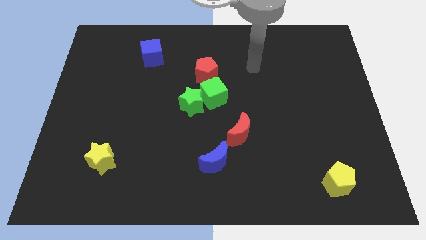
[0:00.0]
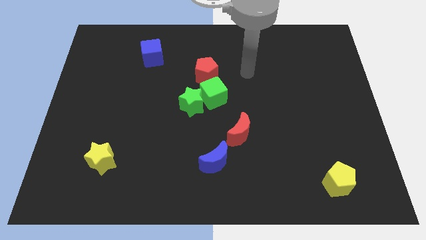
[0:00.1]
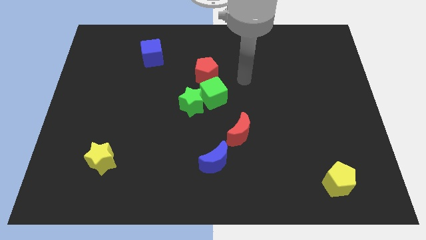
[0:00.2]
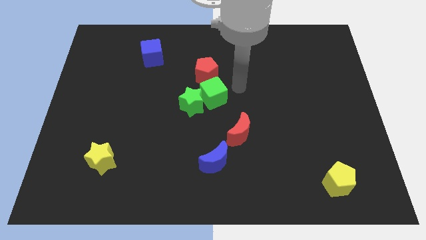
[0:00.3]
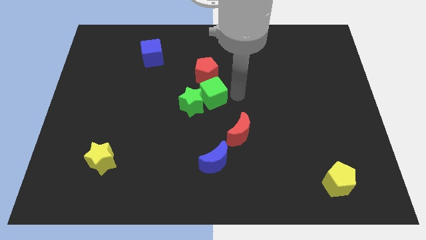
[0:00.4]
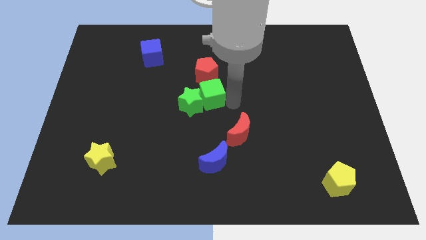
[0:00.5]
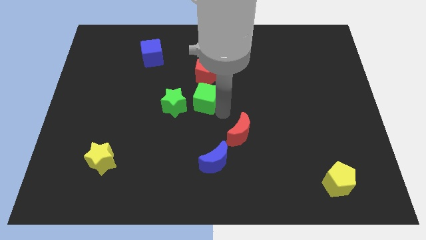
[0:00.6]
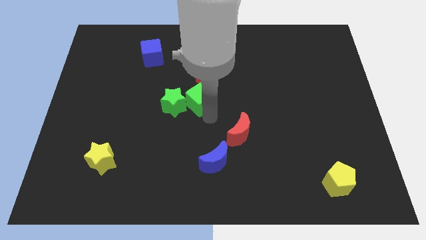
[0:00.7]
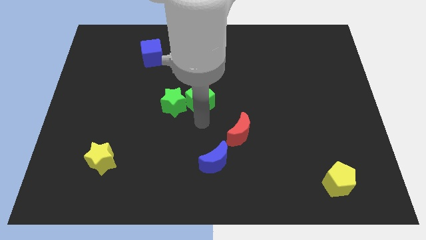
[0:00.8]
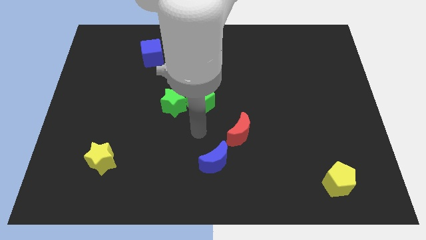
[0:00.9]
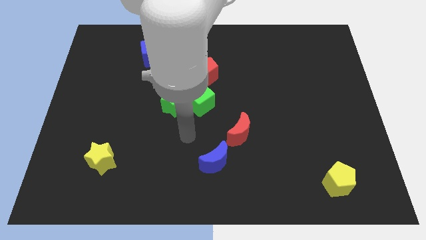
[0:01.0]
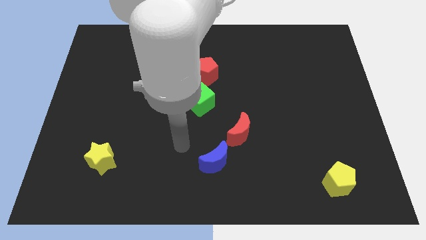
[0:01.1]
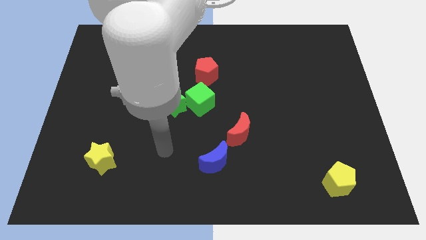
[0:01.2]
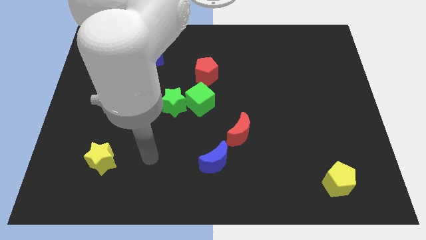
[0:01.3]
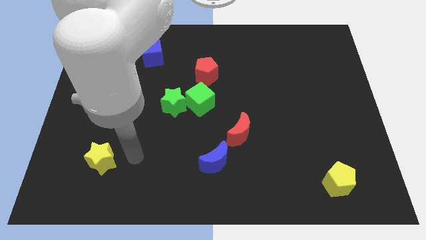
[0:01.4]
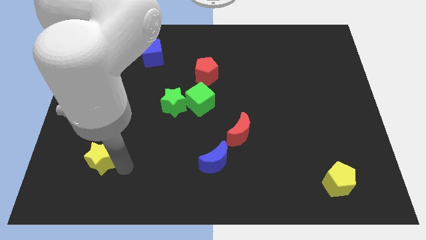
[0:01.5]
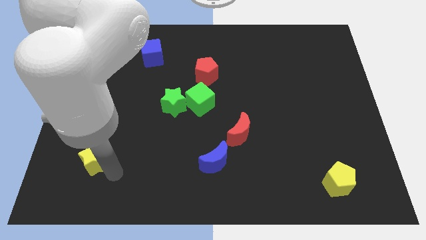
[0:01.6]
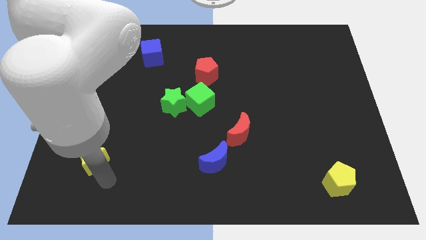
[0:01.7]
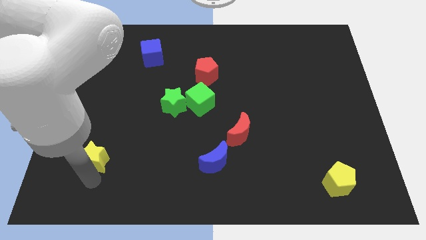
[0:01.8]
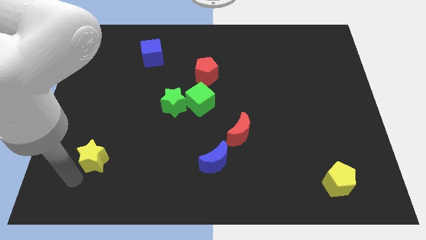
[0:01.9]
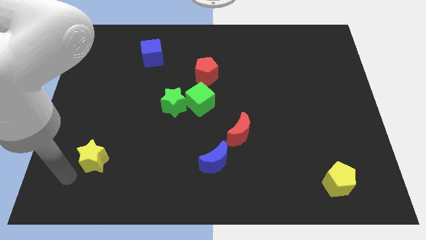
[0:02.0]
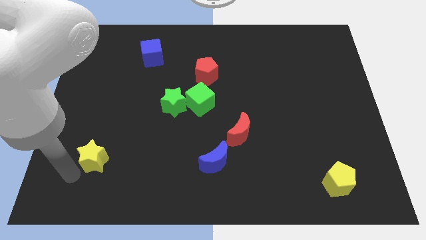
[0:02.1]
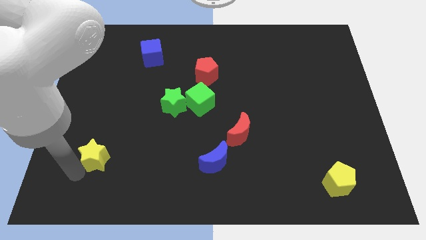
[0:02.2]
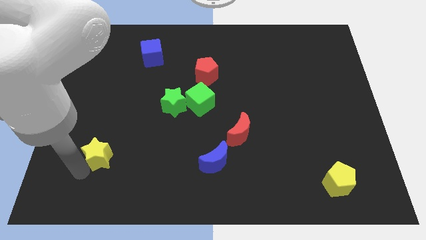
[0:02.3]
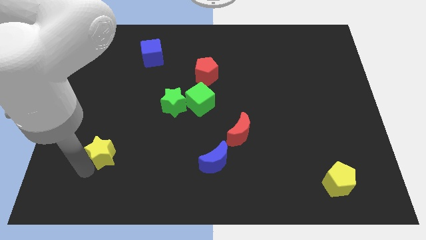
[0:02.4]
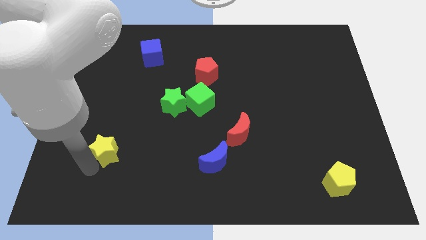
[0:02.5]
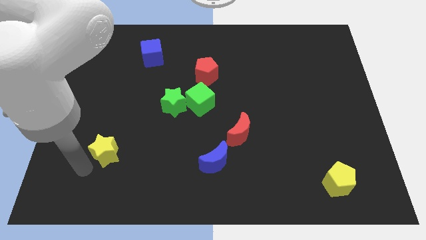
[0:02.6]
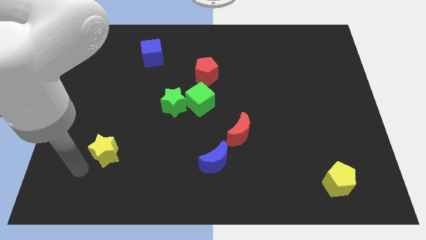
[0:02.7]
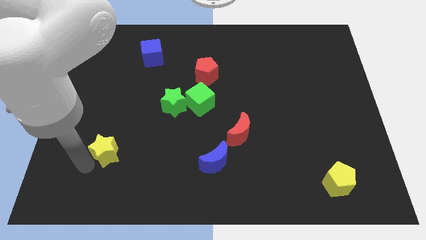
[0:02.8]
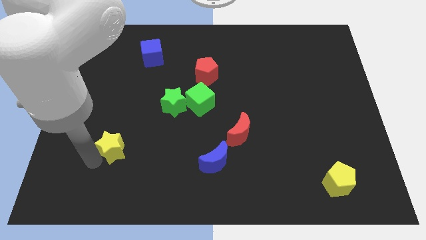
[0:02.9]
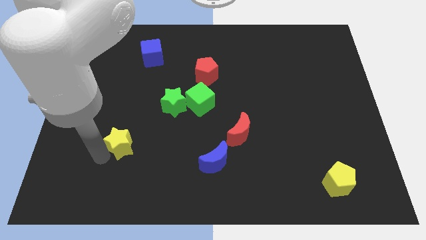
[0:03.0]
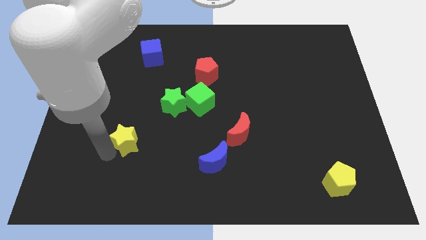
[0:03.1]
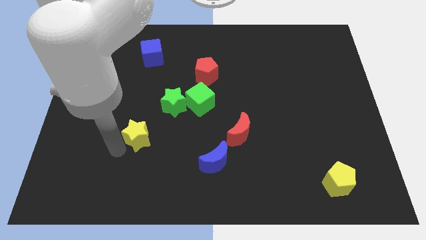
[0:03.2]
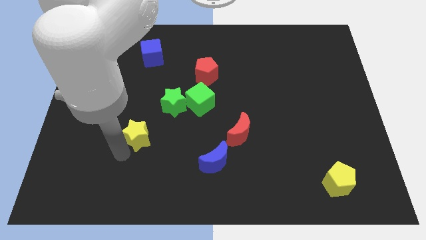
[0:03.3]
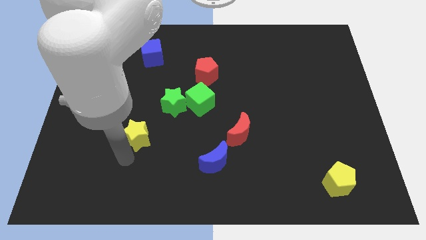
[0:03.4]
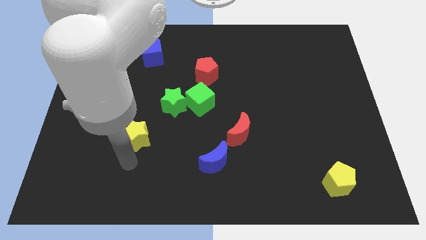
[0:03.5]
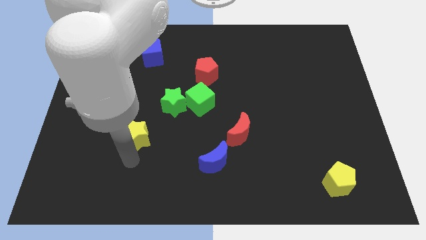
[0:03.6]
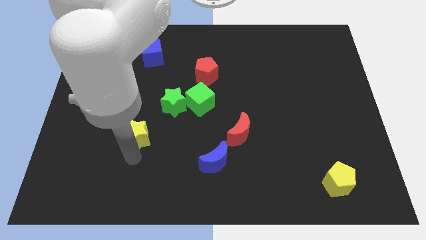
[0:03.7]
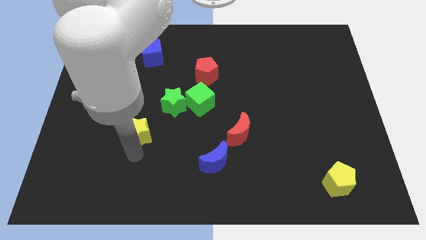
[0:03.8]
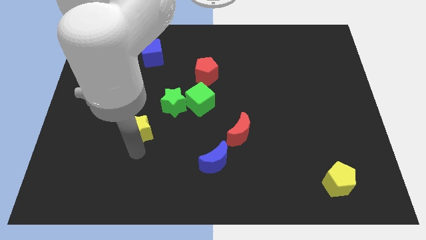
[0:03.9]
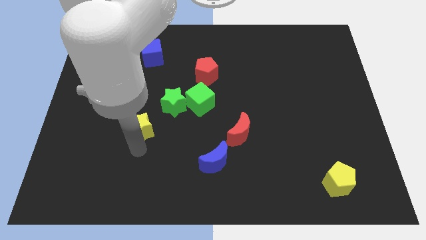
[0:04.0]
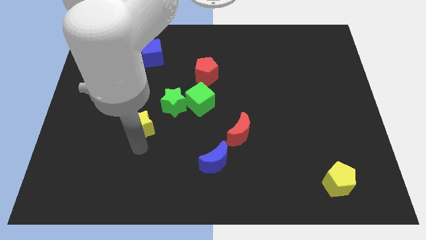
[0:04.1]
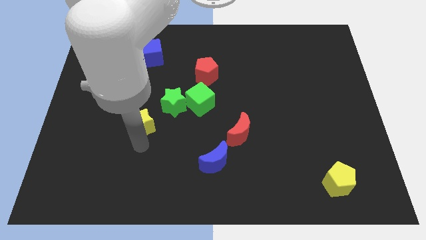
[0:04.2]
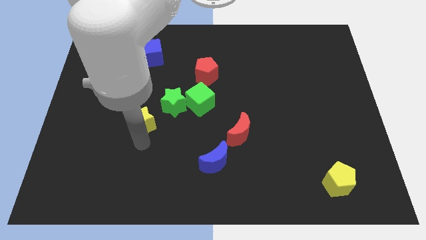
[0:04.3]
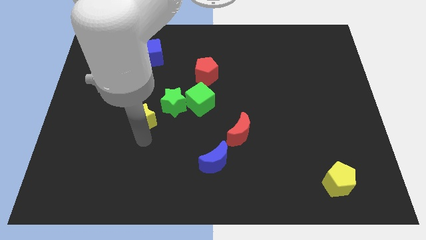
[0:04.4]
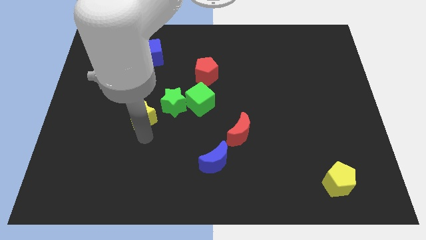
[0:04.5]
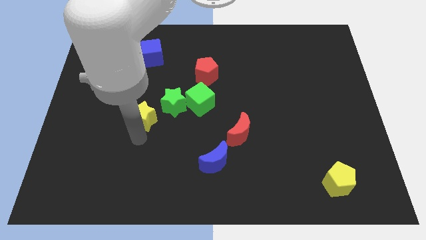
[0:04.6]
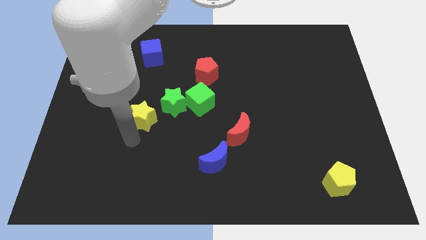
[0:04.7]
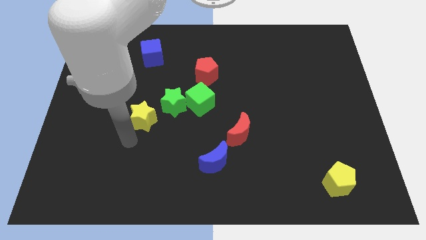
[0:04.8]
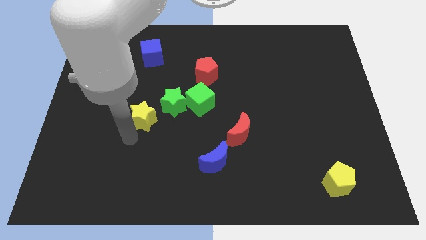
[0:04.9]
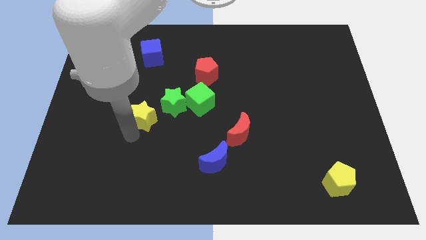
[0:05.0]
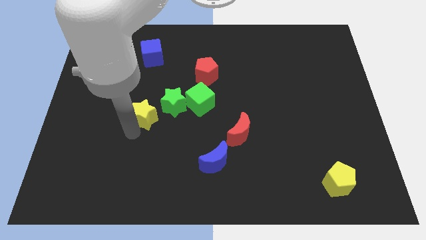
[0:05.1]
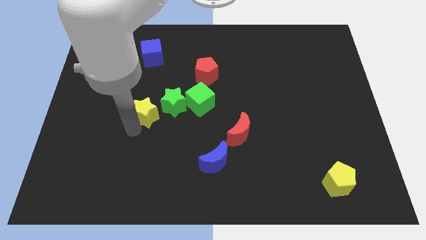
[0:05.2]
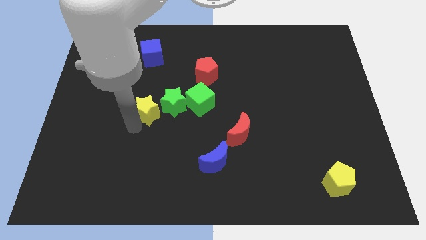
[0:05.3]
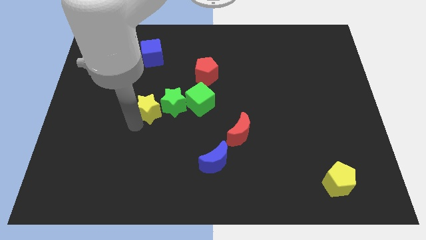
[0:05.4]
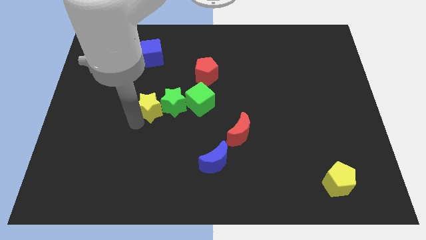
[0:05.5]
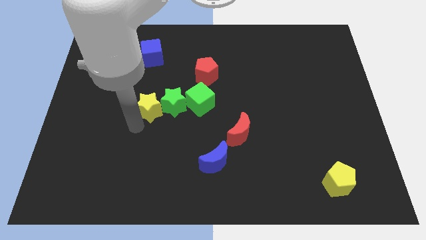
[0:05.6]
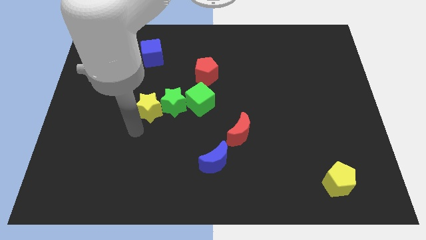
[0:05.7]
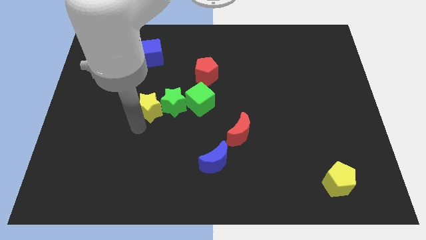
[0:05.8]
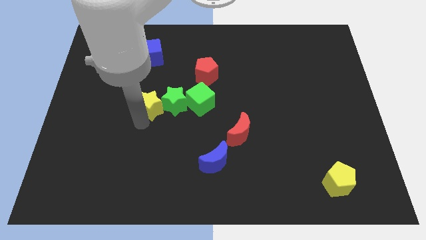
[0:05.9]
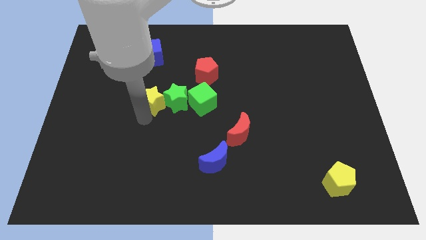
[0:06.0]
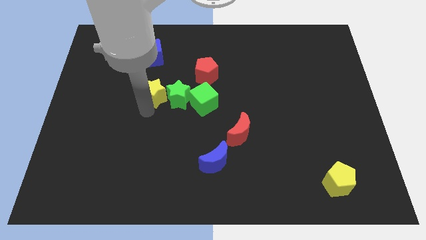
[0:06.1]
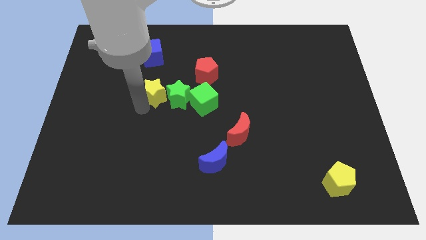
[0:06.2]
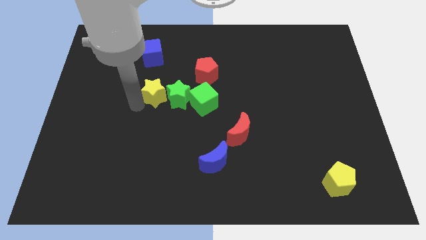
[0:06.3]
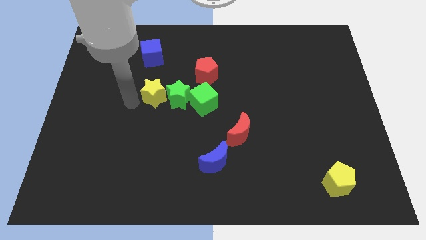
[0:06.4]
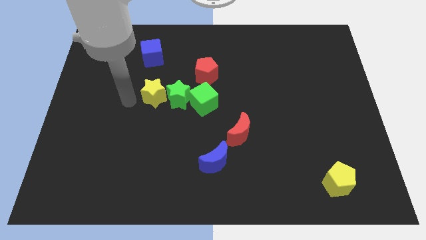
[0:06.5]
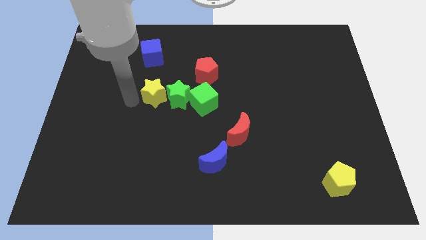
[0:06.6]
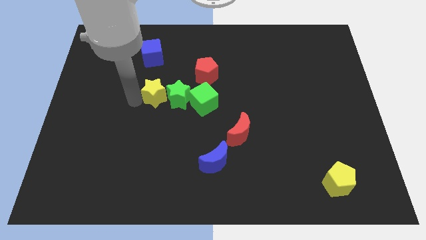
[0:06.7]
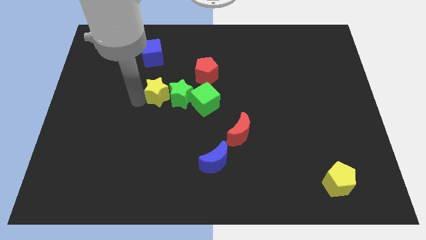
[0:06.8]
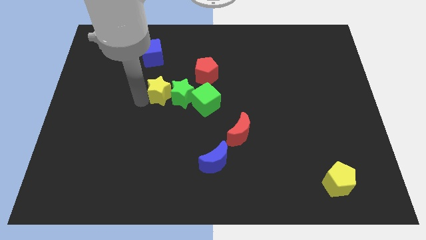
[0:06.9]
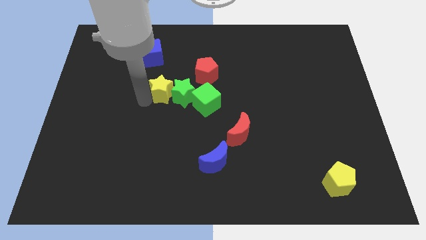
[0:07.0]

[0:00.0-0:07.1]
put the yellow star diagonally down and to the left of the red pentagon
